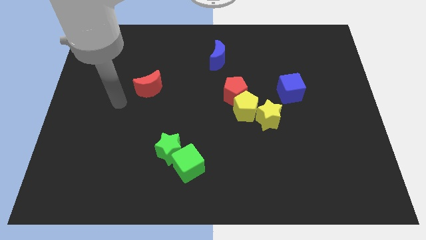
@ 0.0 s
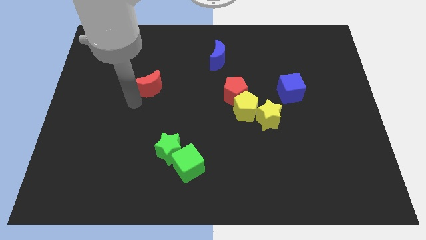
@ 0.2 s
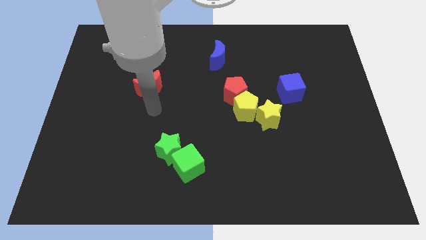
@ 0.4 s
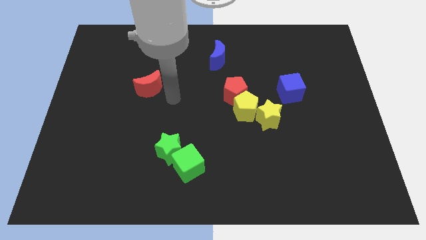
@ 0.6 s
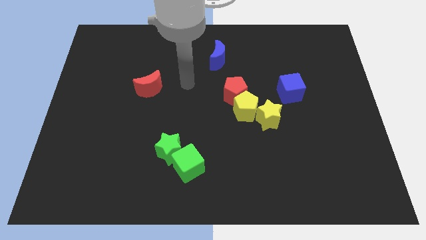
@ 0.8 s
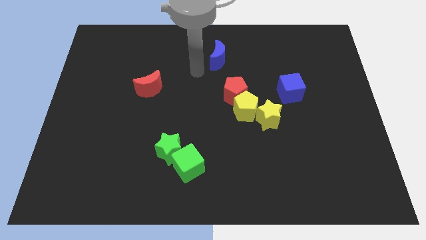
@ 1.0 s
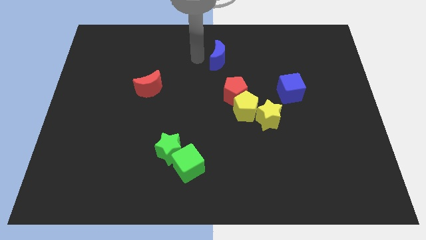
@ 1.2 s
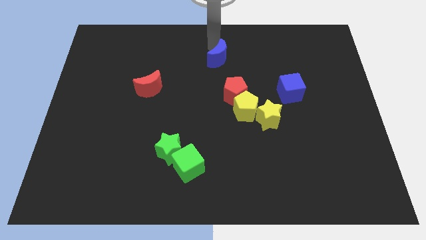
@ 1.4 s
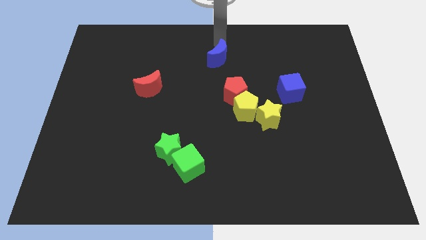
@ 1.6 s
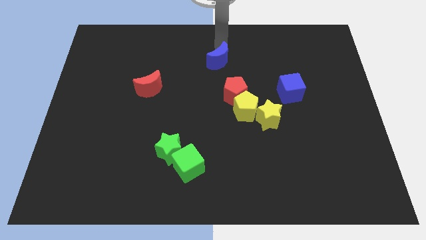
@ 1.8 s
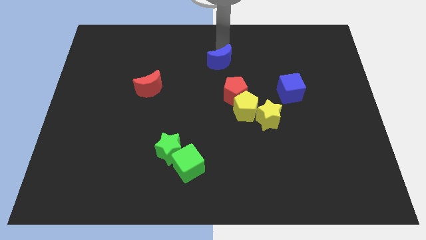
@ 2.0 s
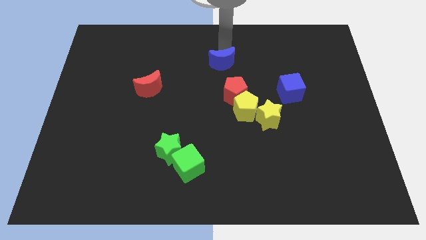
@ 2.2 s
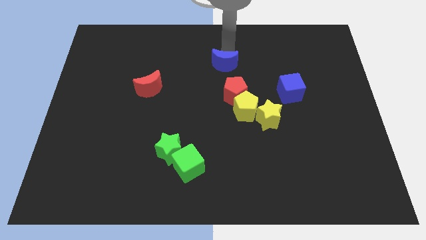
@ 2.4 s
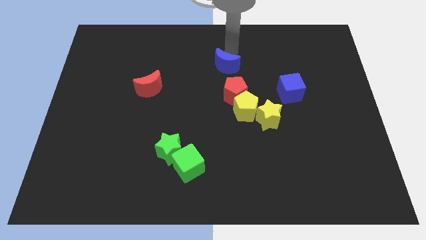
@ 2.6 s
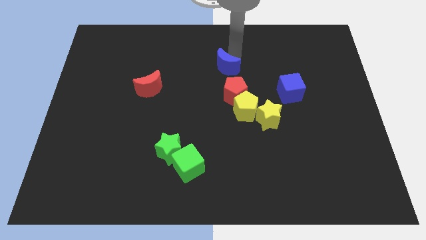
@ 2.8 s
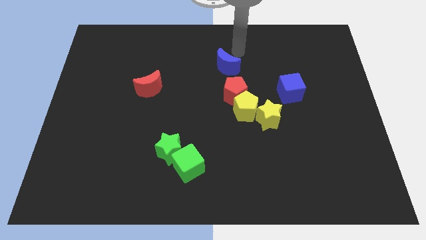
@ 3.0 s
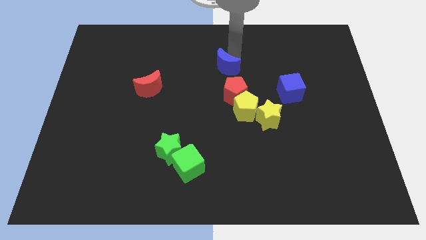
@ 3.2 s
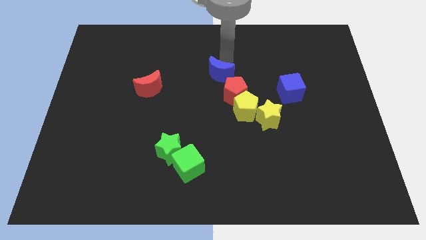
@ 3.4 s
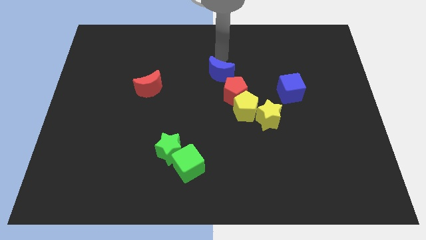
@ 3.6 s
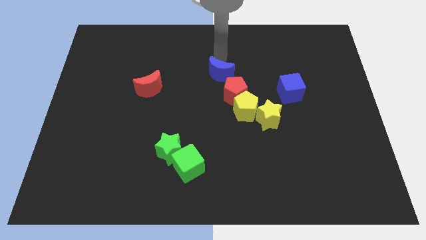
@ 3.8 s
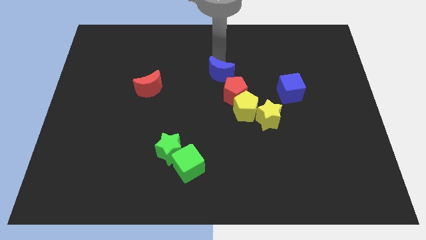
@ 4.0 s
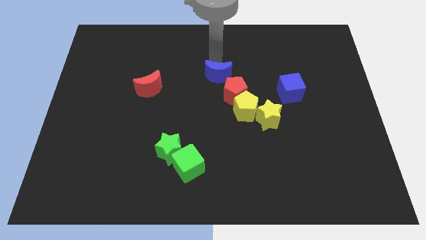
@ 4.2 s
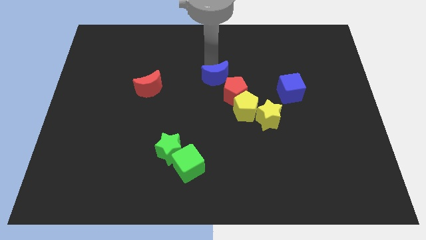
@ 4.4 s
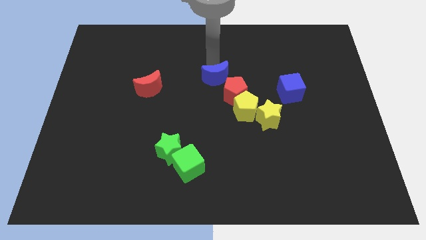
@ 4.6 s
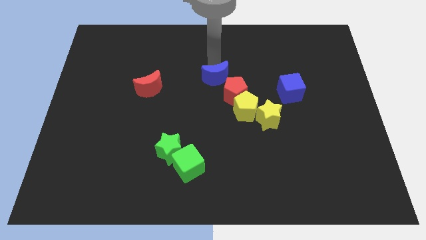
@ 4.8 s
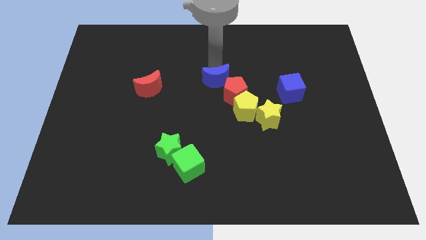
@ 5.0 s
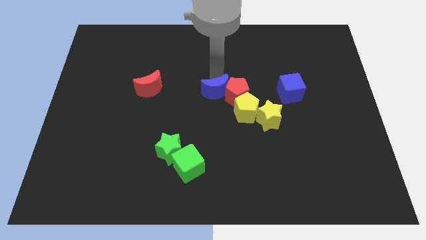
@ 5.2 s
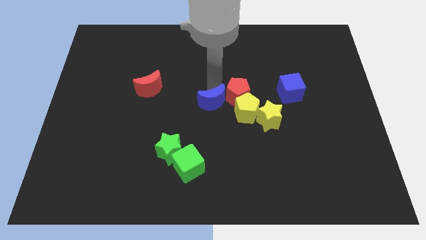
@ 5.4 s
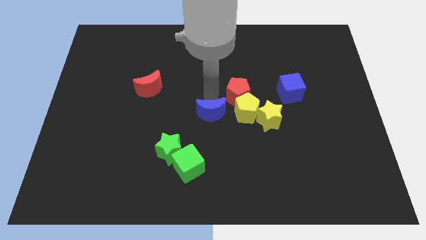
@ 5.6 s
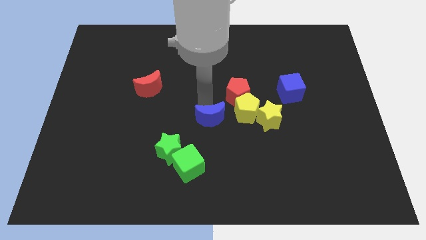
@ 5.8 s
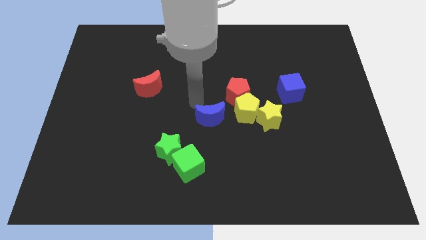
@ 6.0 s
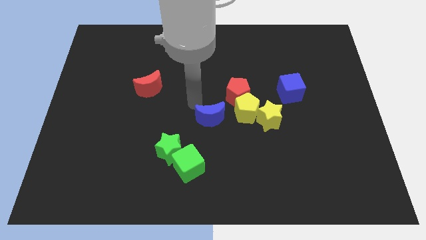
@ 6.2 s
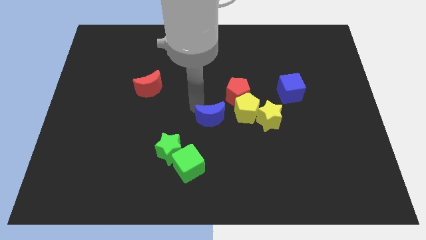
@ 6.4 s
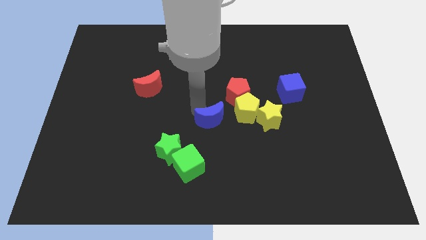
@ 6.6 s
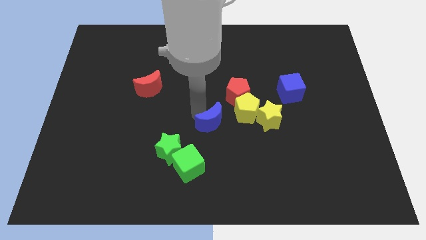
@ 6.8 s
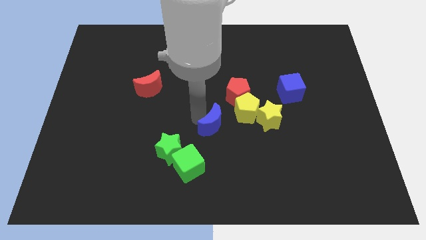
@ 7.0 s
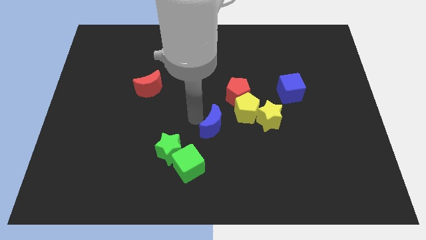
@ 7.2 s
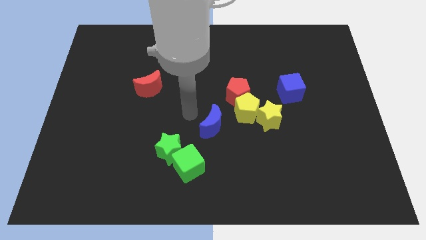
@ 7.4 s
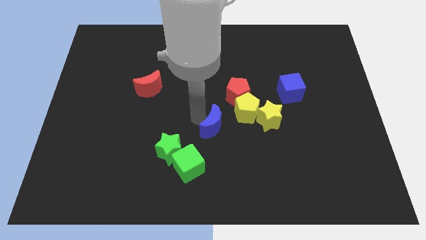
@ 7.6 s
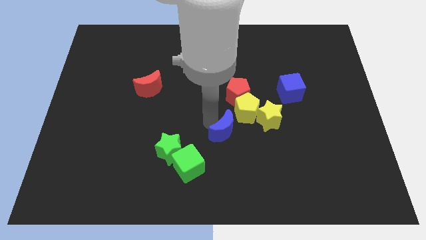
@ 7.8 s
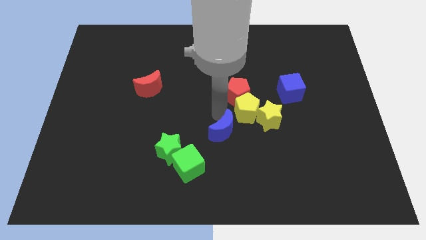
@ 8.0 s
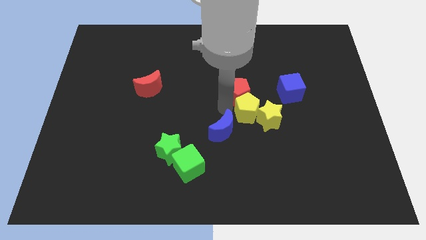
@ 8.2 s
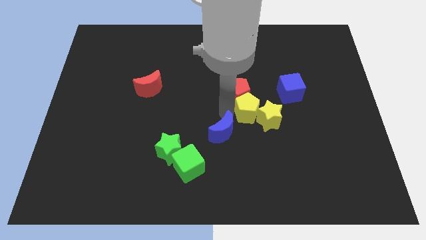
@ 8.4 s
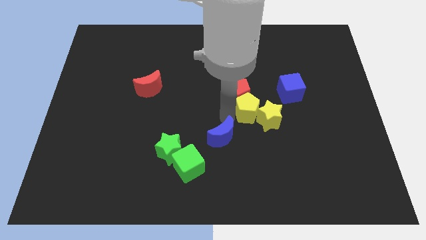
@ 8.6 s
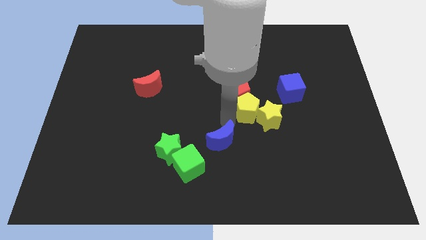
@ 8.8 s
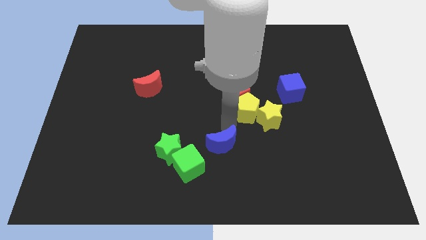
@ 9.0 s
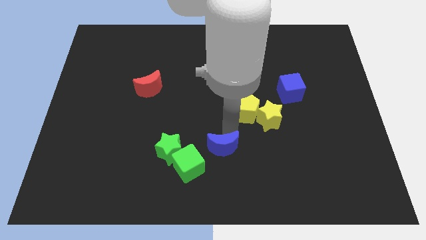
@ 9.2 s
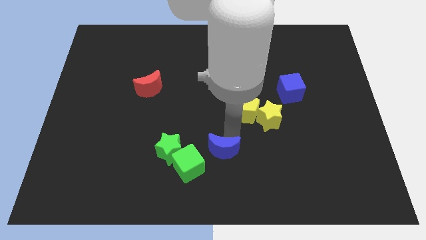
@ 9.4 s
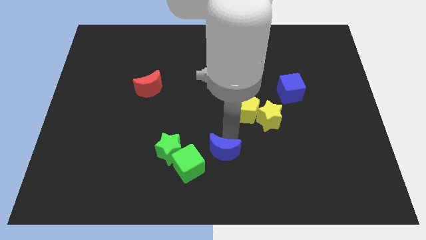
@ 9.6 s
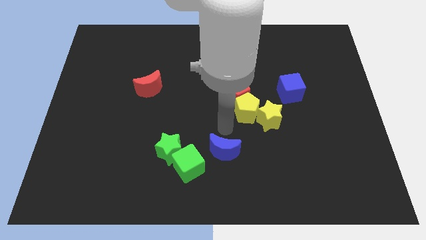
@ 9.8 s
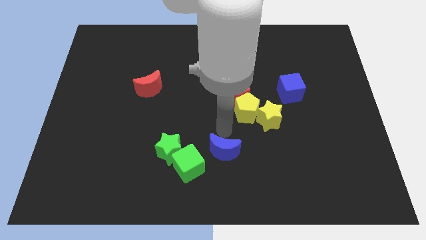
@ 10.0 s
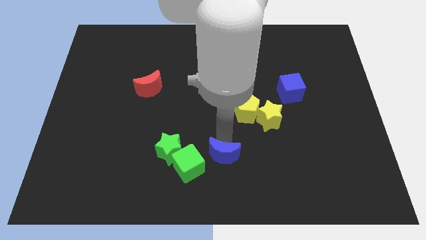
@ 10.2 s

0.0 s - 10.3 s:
move the blue moon to the bottom

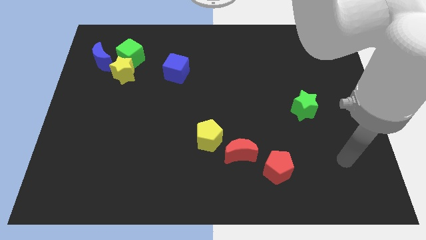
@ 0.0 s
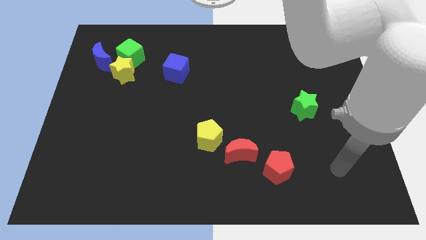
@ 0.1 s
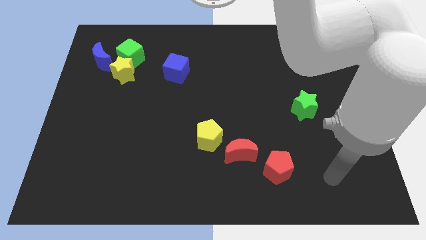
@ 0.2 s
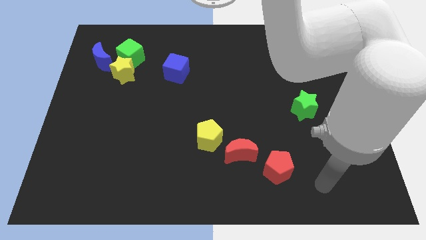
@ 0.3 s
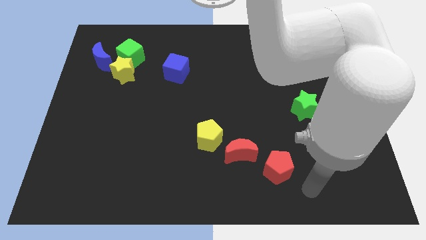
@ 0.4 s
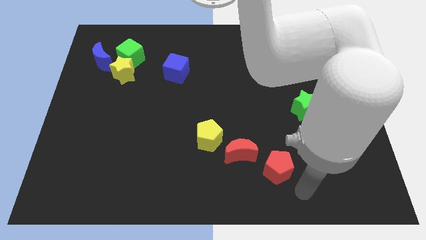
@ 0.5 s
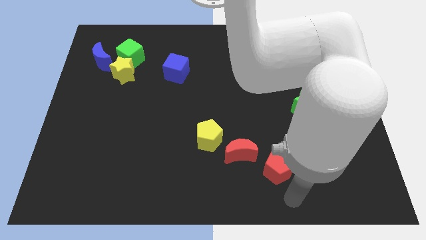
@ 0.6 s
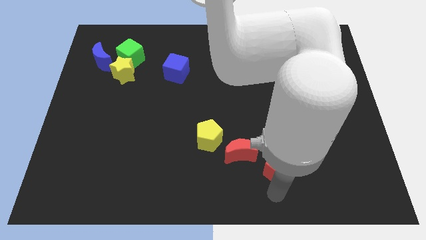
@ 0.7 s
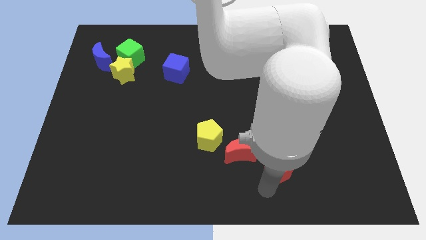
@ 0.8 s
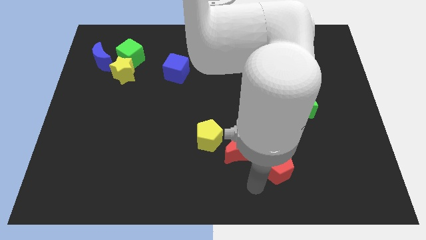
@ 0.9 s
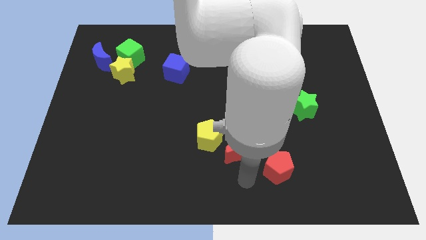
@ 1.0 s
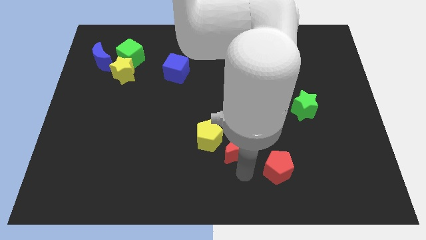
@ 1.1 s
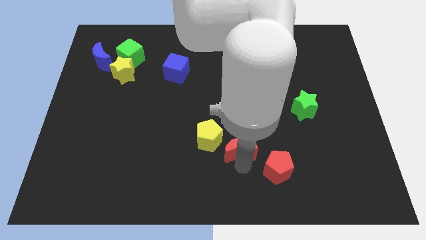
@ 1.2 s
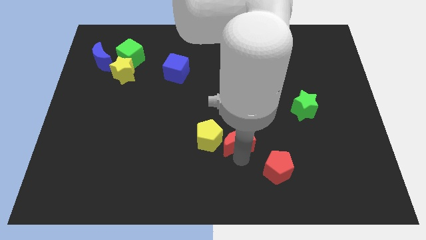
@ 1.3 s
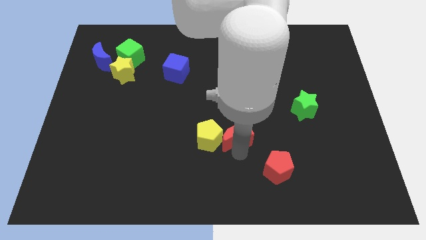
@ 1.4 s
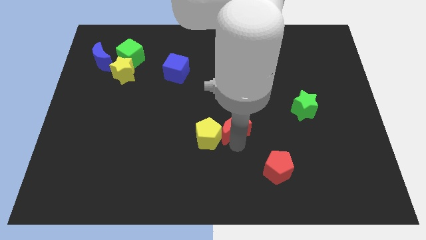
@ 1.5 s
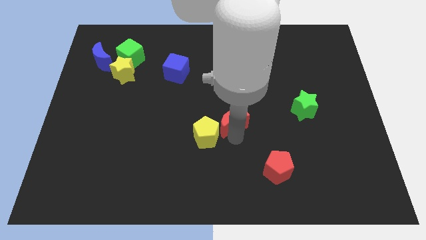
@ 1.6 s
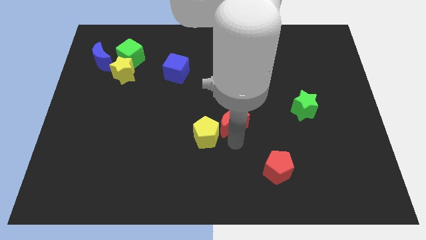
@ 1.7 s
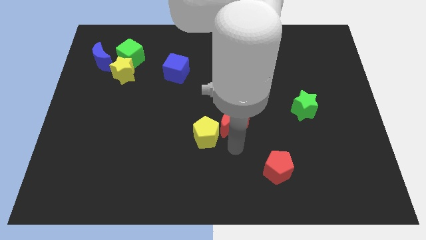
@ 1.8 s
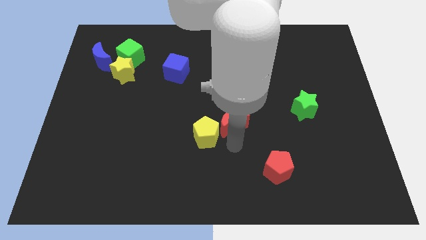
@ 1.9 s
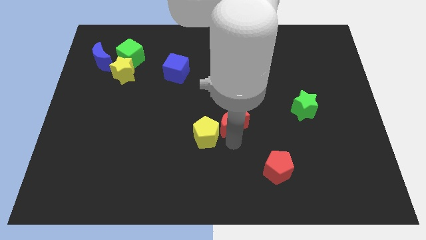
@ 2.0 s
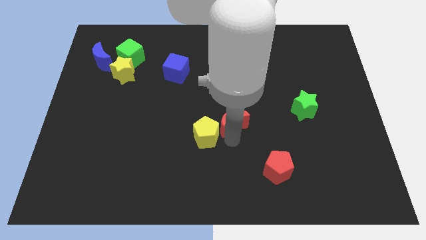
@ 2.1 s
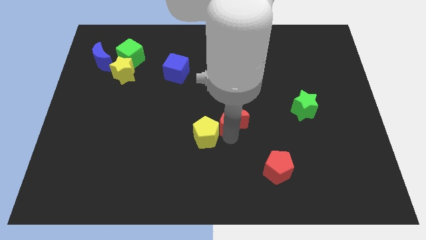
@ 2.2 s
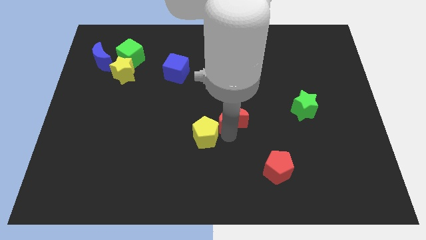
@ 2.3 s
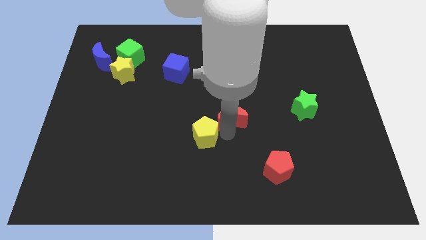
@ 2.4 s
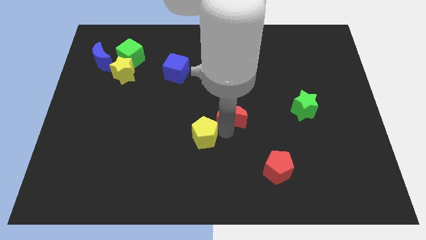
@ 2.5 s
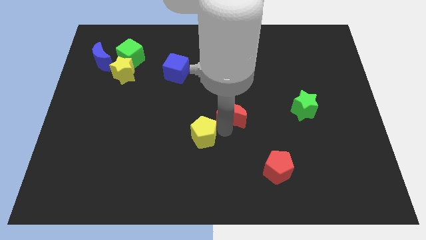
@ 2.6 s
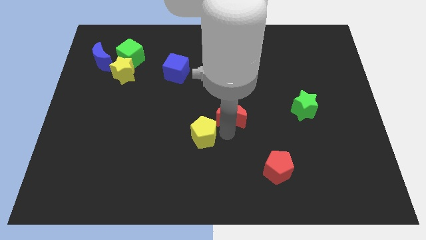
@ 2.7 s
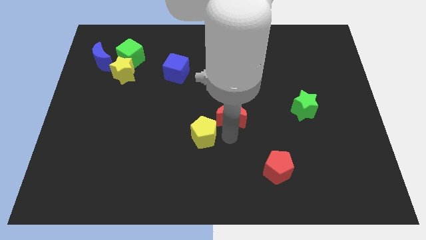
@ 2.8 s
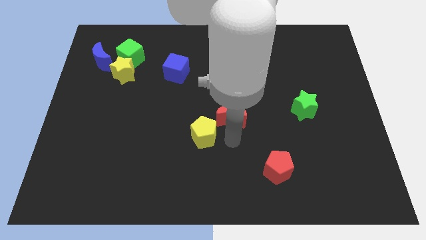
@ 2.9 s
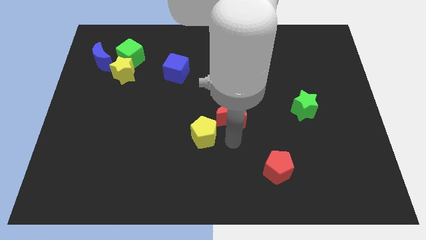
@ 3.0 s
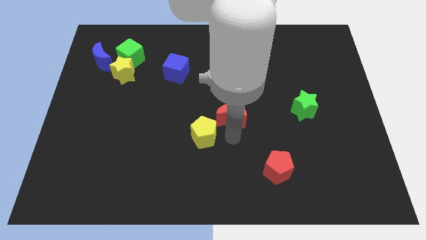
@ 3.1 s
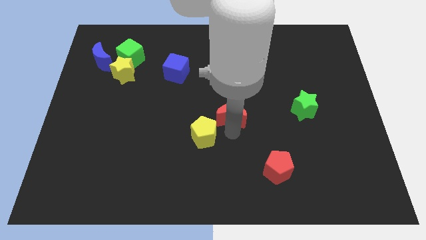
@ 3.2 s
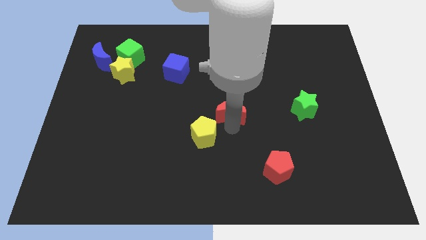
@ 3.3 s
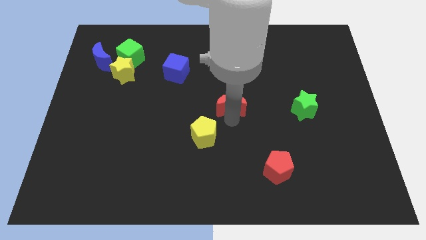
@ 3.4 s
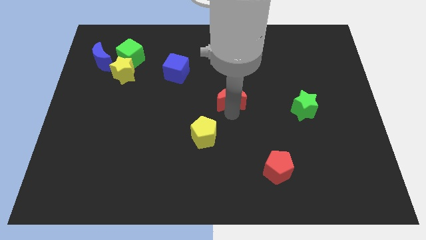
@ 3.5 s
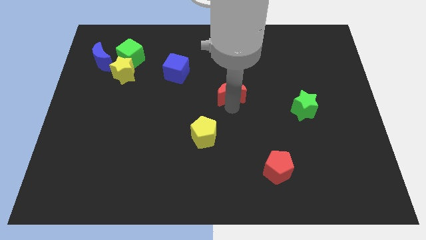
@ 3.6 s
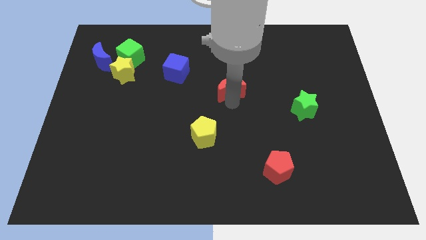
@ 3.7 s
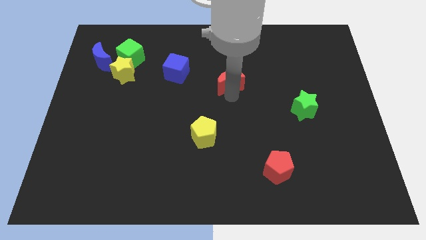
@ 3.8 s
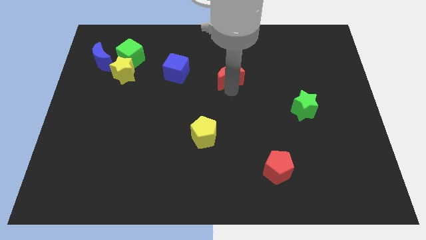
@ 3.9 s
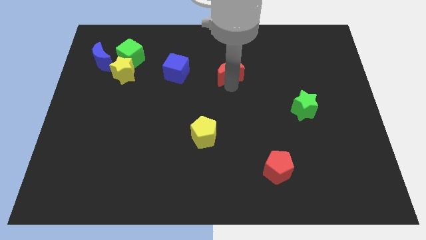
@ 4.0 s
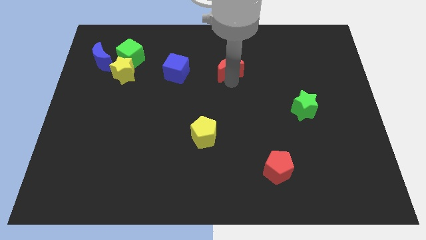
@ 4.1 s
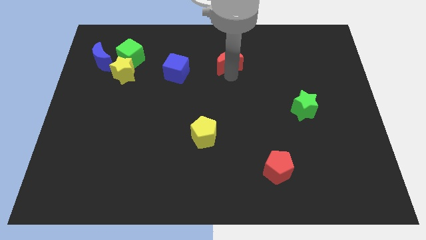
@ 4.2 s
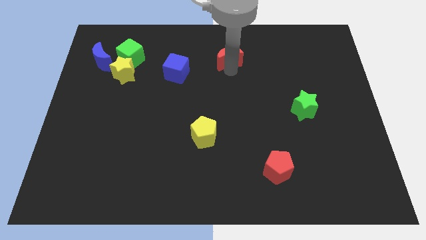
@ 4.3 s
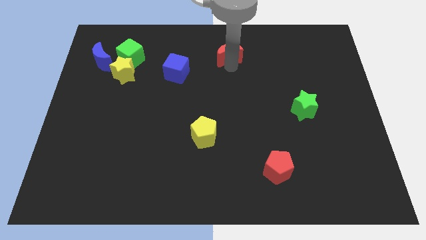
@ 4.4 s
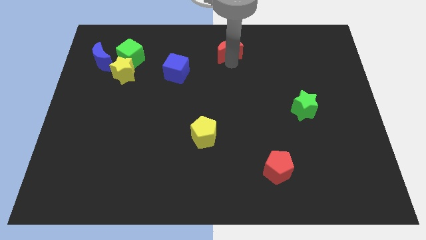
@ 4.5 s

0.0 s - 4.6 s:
put the red moon to the towards your base
